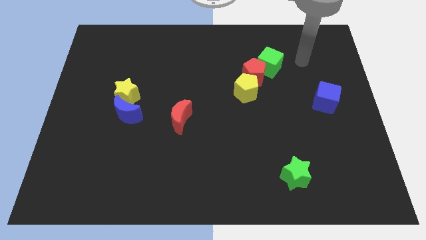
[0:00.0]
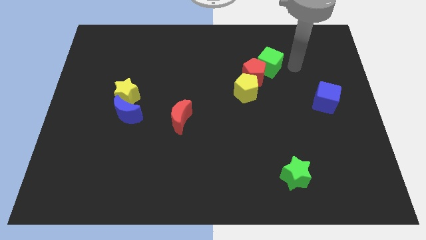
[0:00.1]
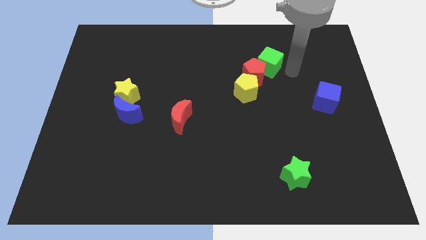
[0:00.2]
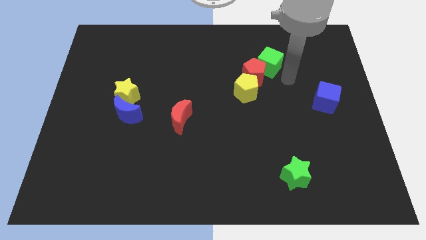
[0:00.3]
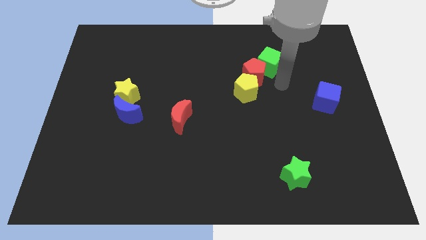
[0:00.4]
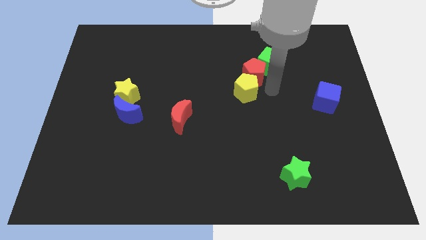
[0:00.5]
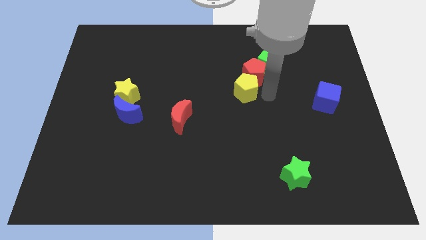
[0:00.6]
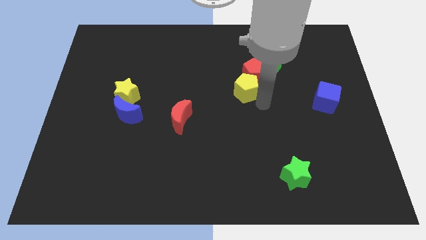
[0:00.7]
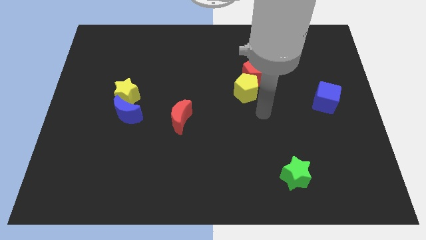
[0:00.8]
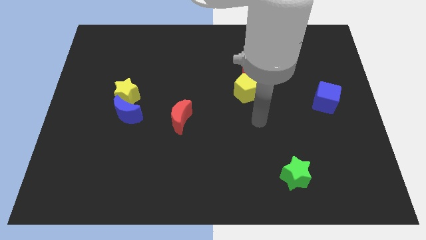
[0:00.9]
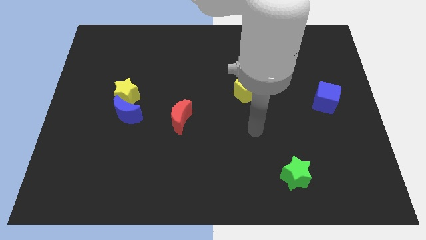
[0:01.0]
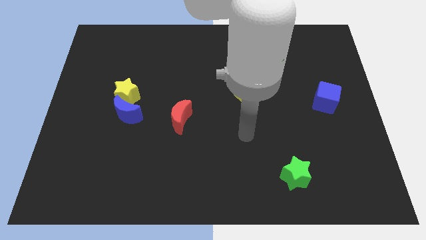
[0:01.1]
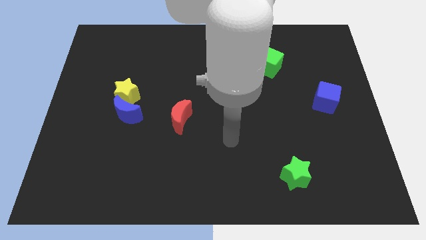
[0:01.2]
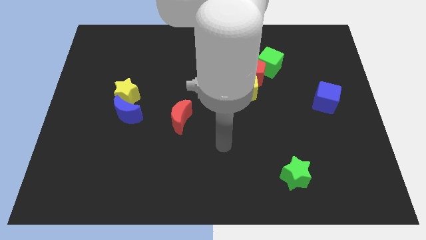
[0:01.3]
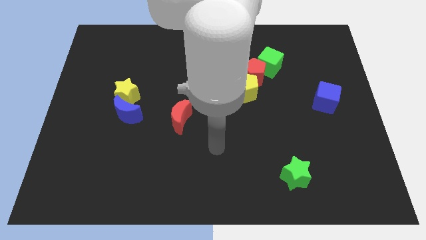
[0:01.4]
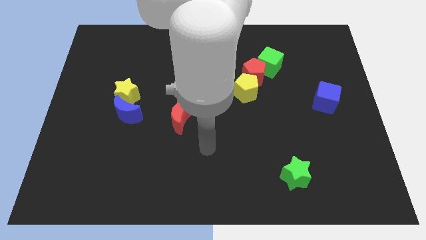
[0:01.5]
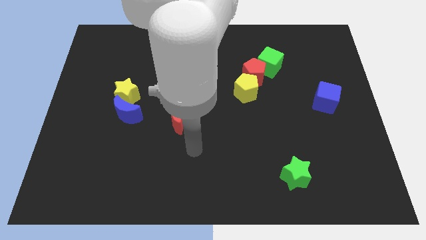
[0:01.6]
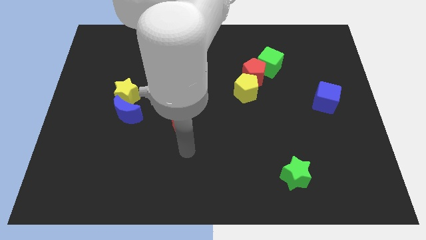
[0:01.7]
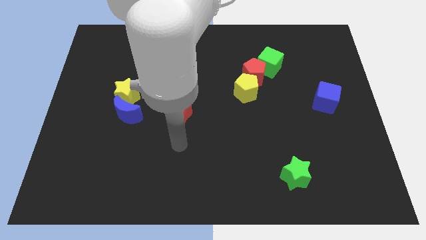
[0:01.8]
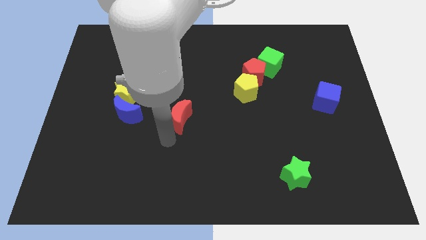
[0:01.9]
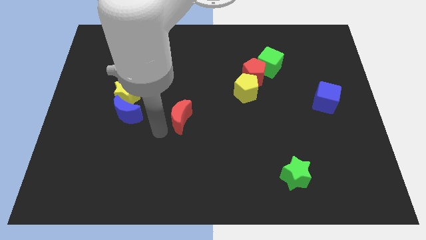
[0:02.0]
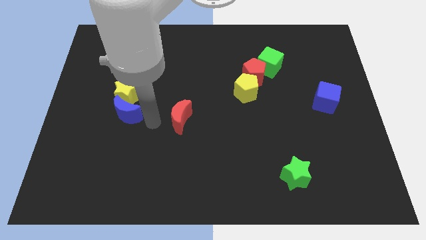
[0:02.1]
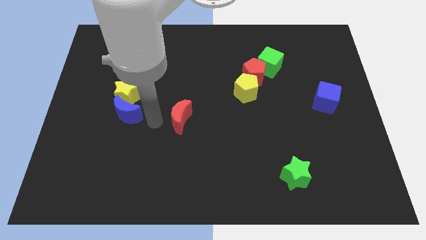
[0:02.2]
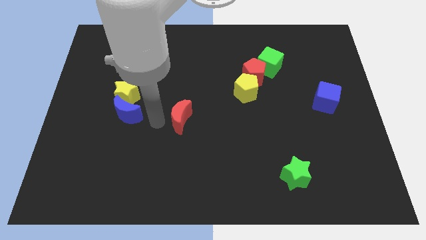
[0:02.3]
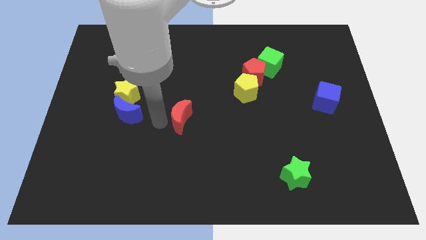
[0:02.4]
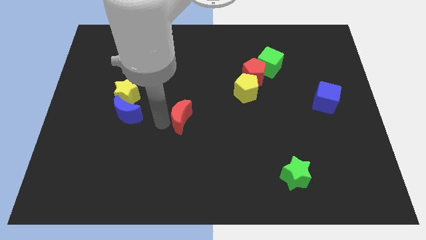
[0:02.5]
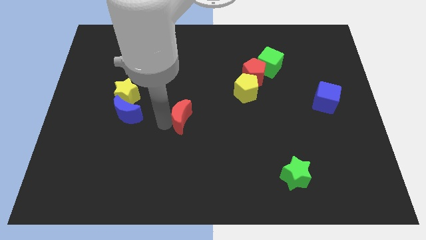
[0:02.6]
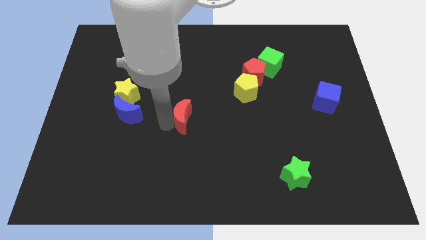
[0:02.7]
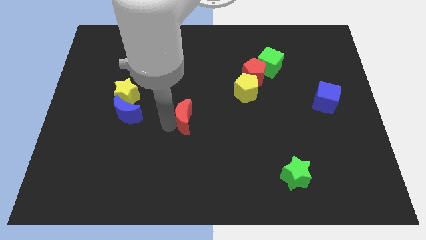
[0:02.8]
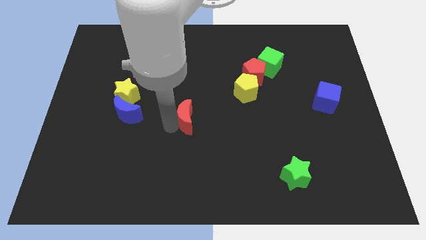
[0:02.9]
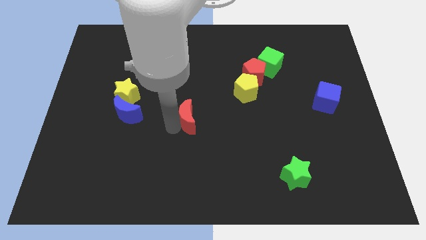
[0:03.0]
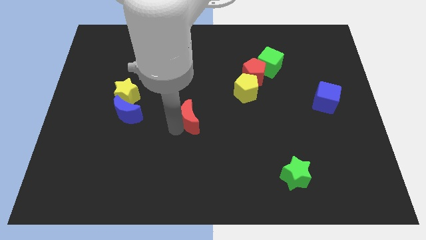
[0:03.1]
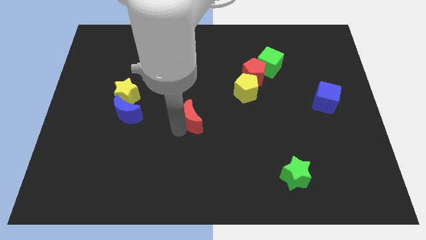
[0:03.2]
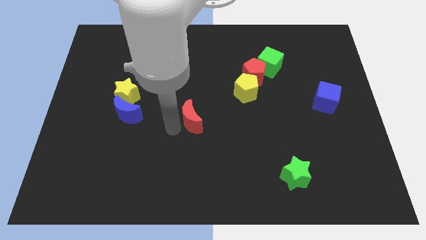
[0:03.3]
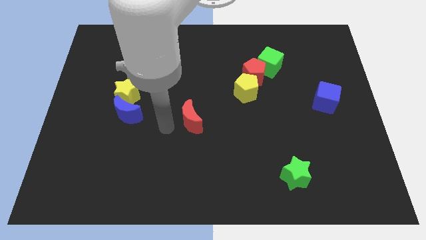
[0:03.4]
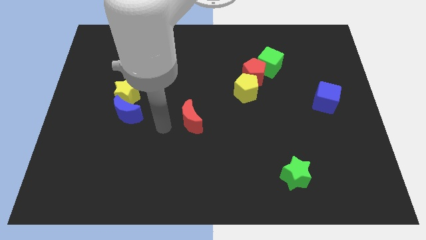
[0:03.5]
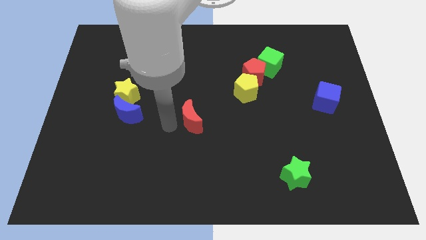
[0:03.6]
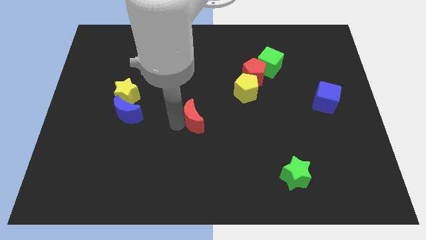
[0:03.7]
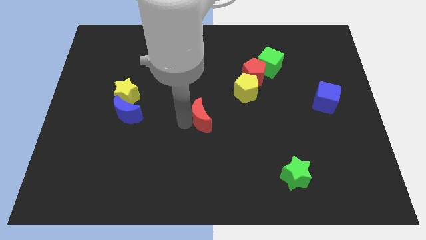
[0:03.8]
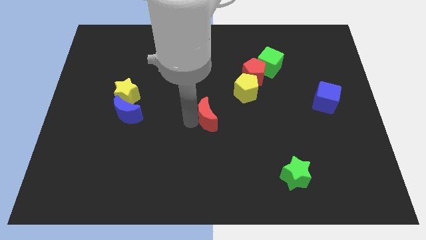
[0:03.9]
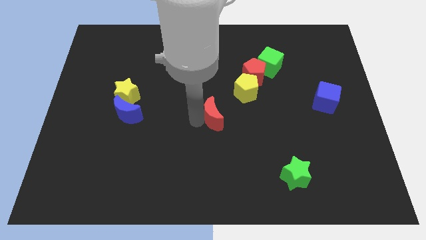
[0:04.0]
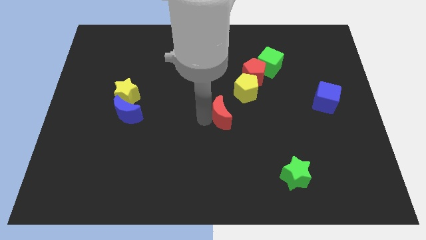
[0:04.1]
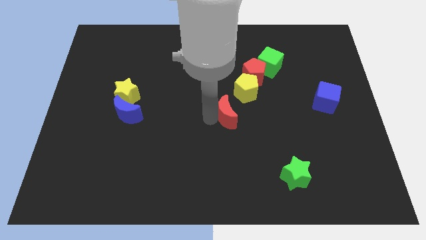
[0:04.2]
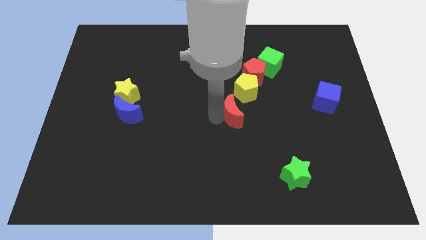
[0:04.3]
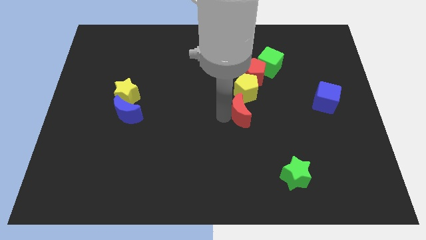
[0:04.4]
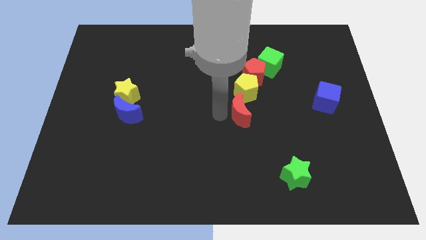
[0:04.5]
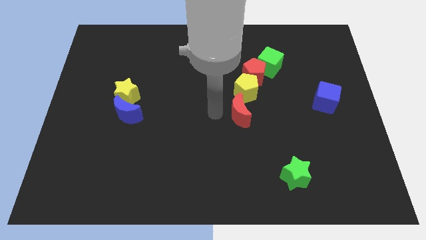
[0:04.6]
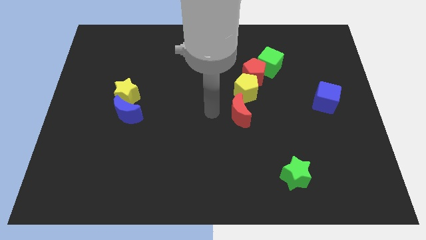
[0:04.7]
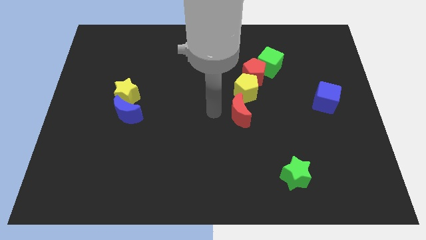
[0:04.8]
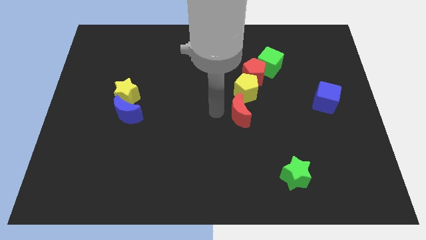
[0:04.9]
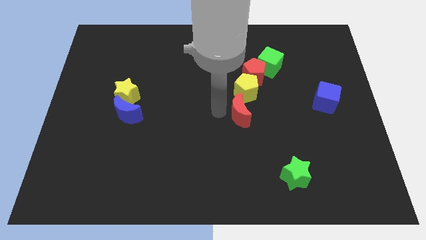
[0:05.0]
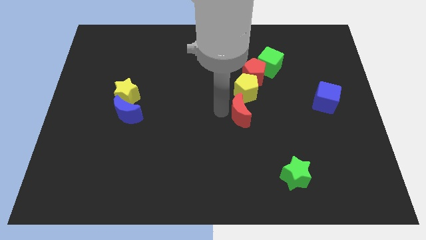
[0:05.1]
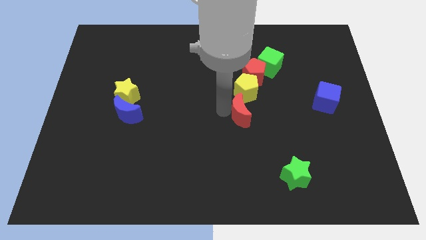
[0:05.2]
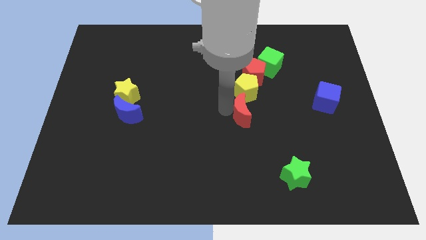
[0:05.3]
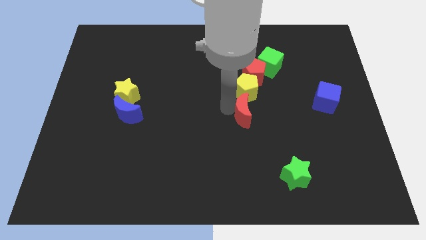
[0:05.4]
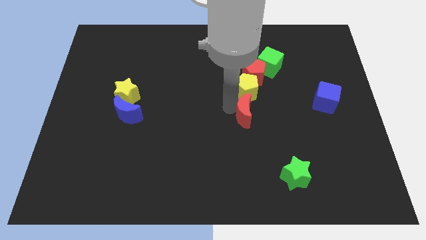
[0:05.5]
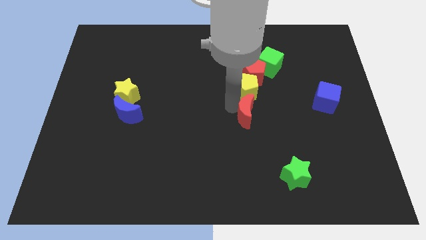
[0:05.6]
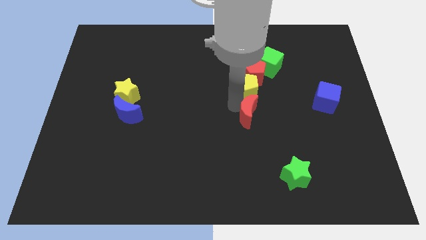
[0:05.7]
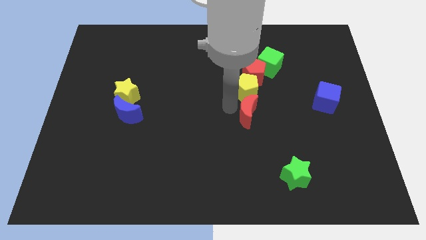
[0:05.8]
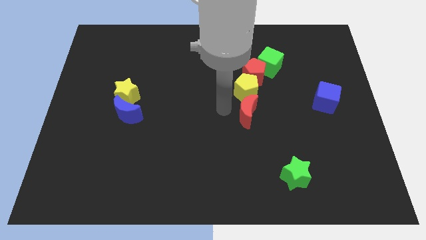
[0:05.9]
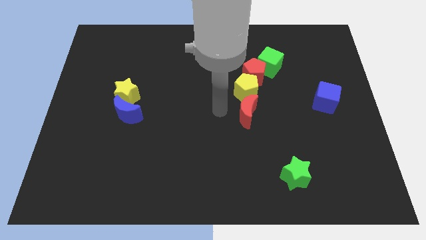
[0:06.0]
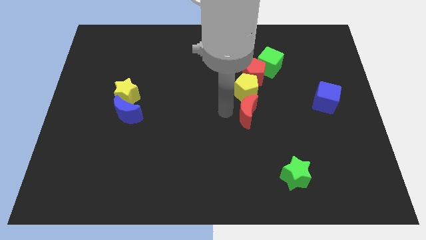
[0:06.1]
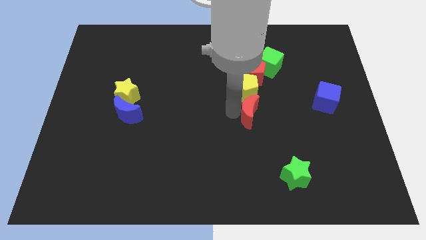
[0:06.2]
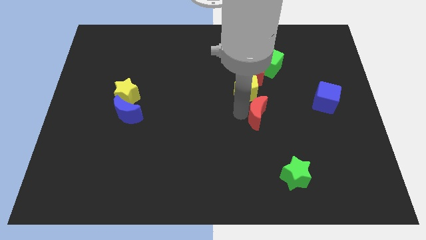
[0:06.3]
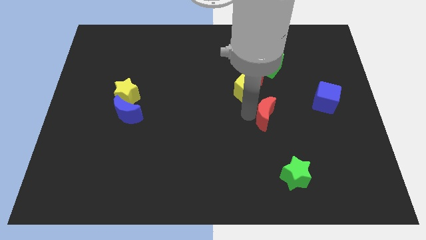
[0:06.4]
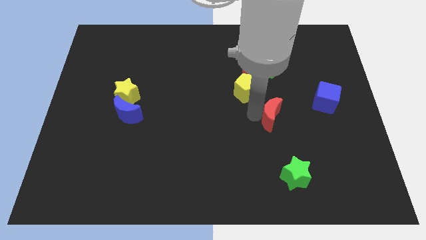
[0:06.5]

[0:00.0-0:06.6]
push the red moon right

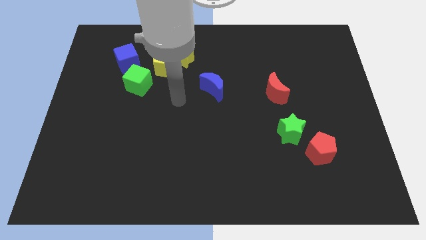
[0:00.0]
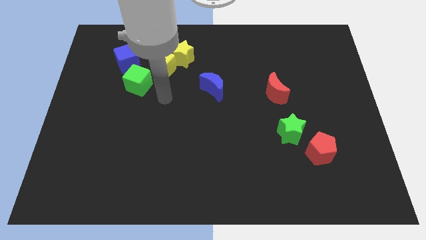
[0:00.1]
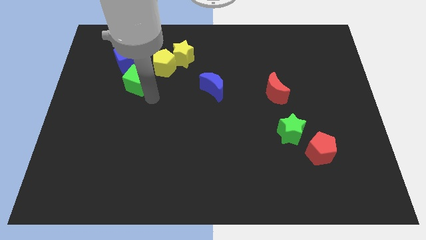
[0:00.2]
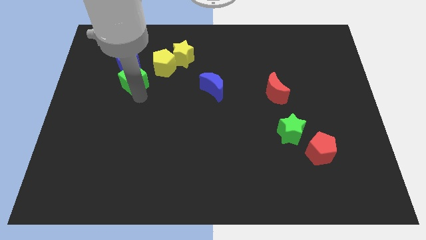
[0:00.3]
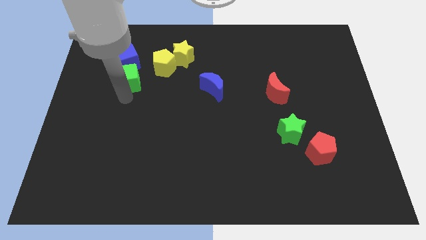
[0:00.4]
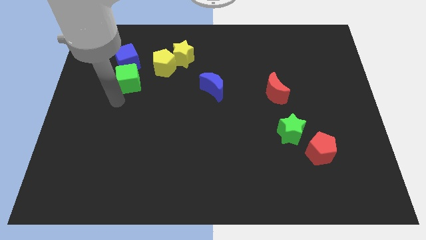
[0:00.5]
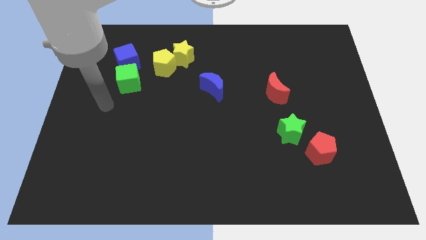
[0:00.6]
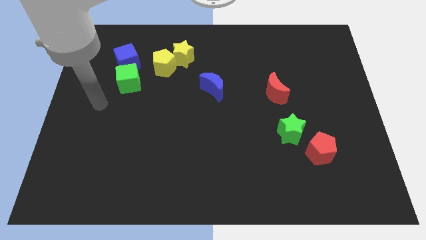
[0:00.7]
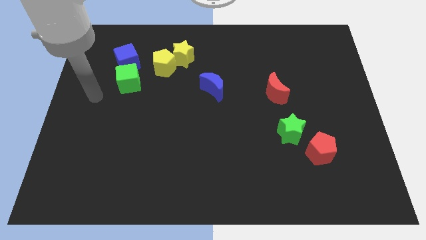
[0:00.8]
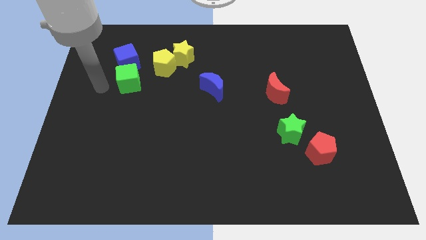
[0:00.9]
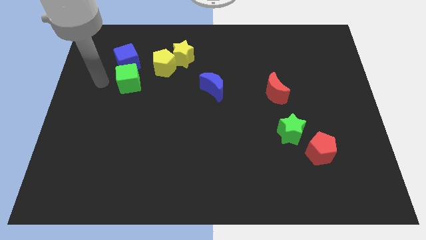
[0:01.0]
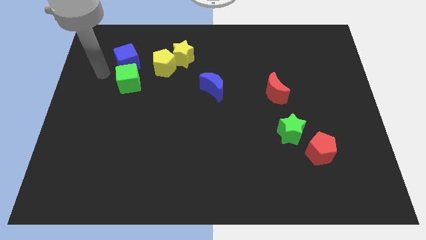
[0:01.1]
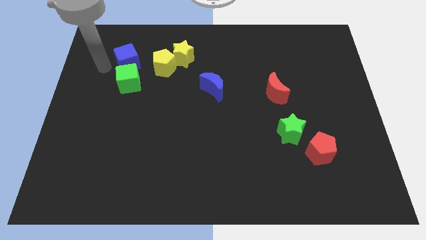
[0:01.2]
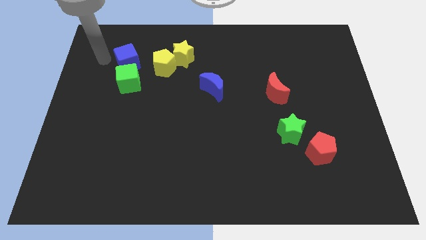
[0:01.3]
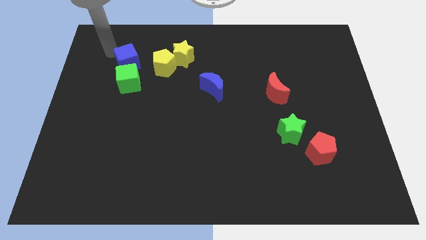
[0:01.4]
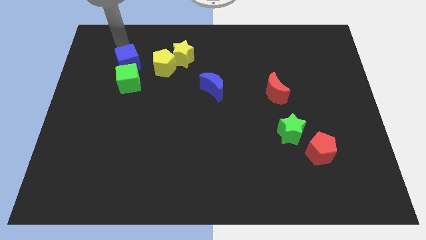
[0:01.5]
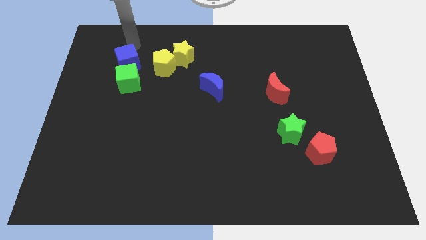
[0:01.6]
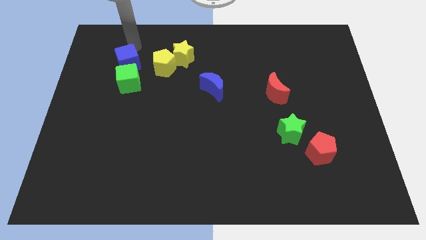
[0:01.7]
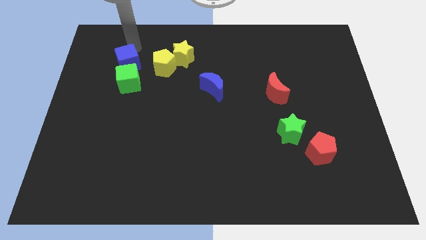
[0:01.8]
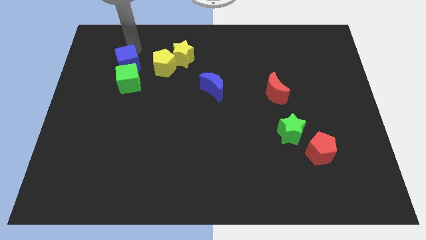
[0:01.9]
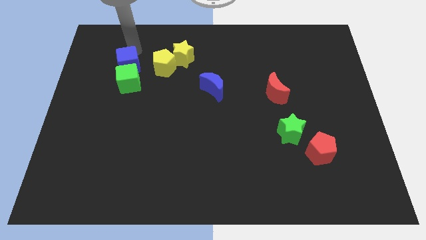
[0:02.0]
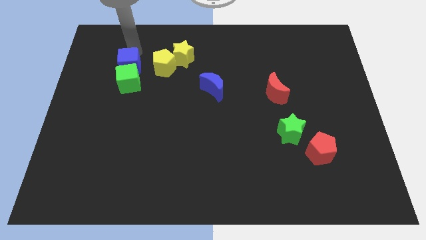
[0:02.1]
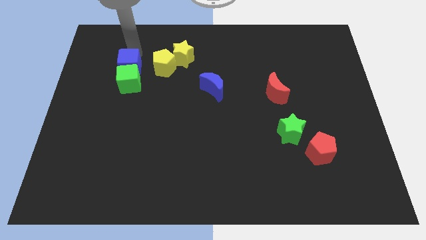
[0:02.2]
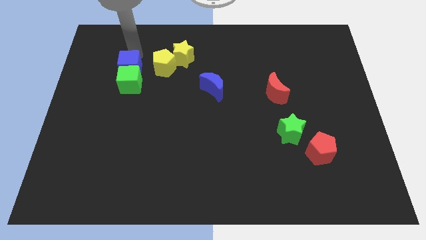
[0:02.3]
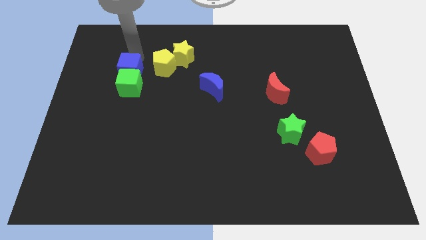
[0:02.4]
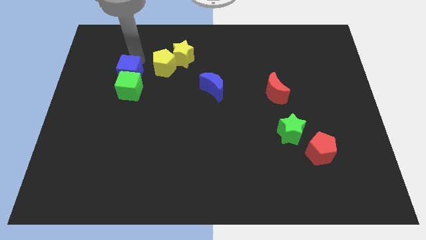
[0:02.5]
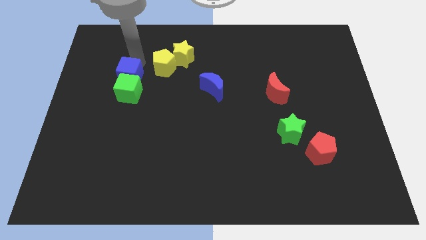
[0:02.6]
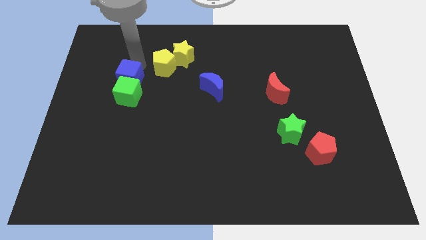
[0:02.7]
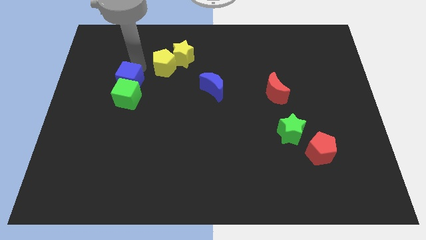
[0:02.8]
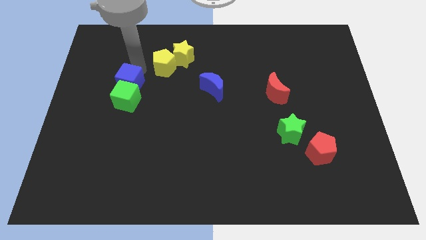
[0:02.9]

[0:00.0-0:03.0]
move the blue cube slightly downwards
